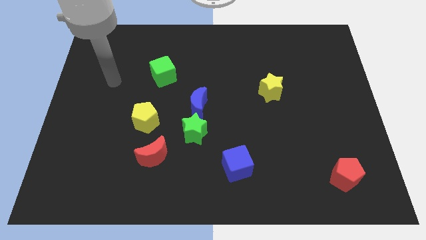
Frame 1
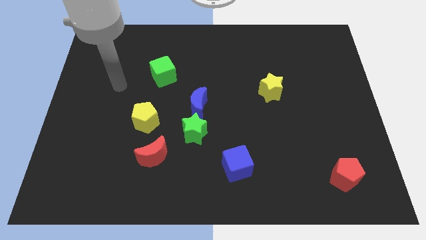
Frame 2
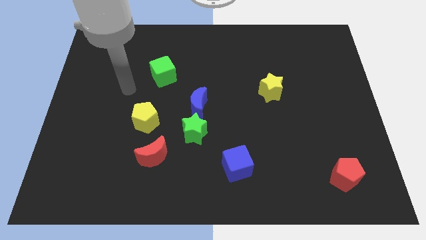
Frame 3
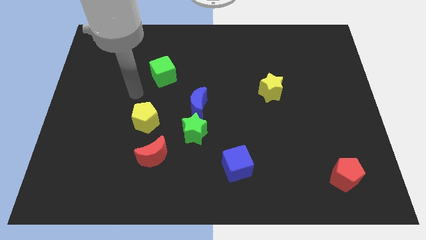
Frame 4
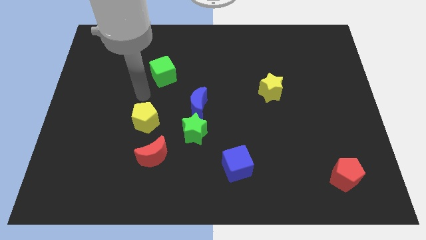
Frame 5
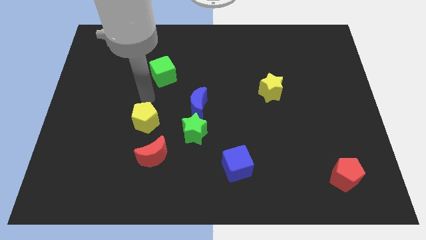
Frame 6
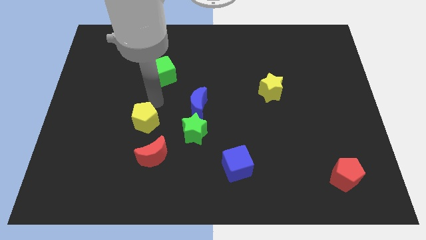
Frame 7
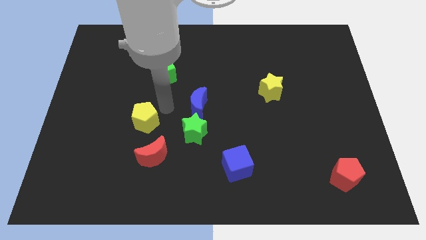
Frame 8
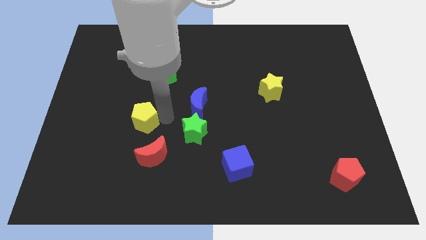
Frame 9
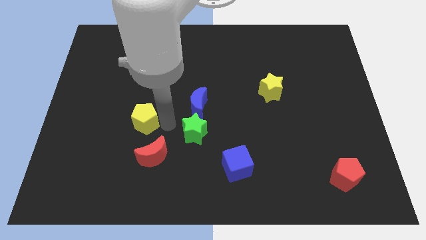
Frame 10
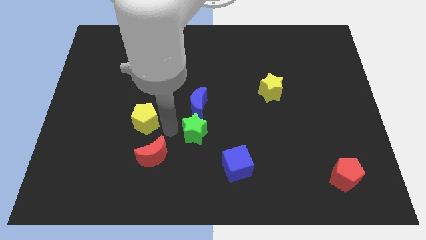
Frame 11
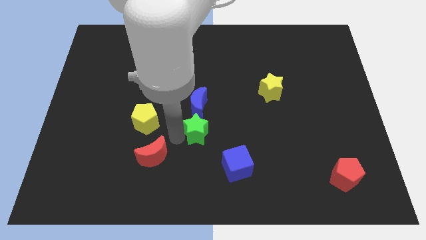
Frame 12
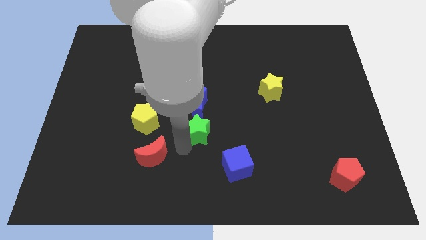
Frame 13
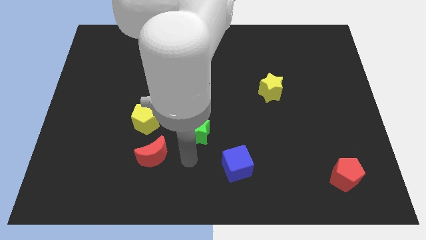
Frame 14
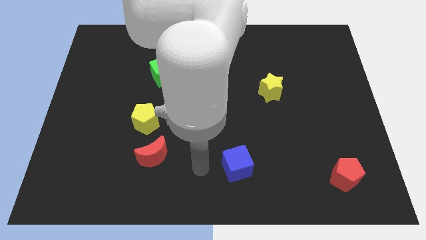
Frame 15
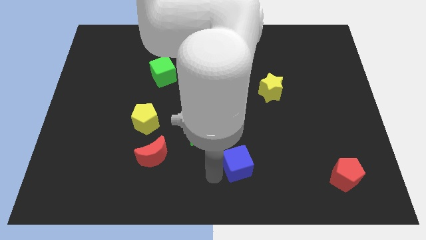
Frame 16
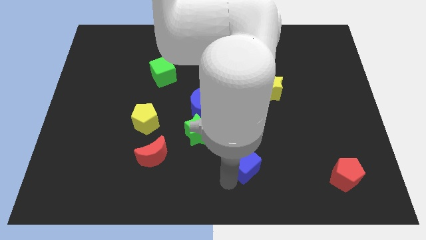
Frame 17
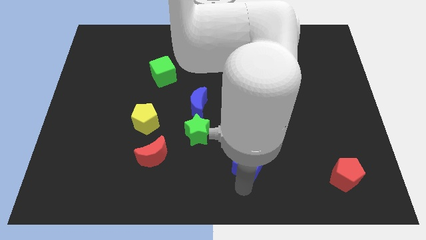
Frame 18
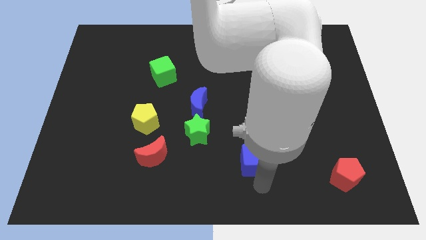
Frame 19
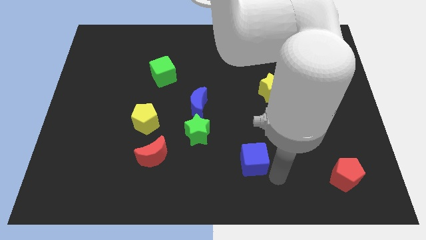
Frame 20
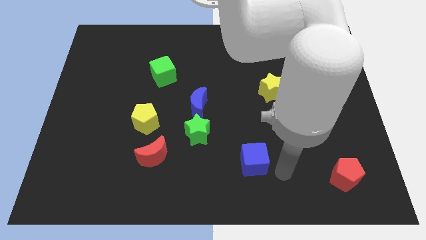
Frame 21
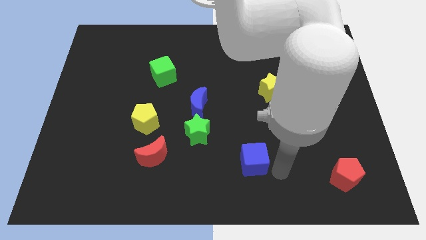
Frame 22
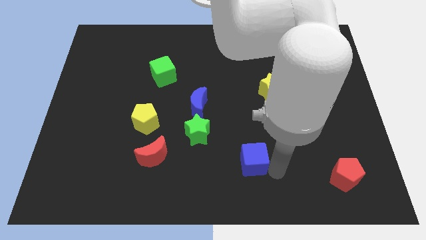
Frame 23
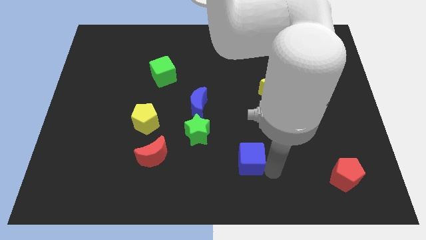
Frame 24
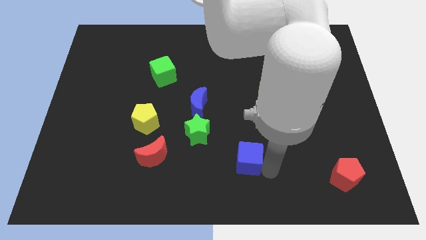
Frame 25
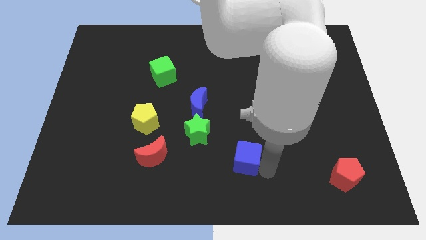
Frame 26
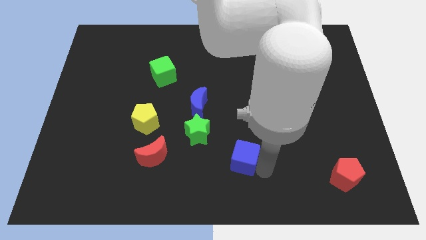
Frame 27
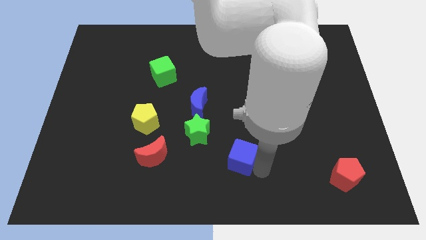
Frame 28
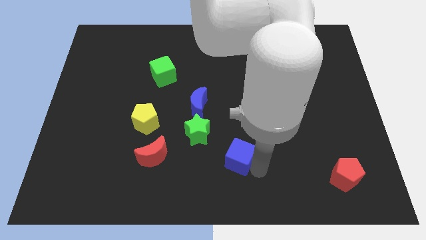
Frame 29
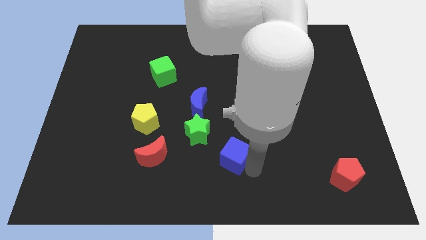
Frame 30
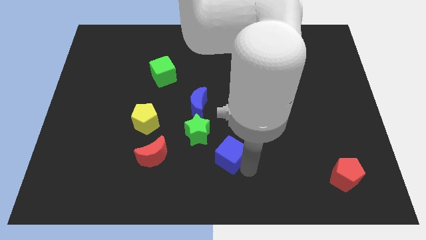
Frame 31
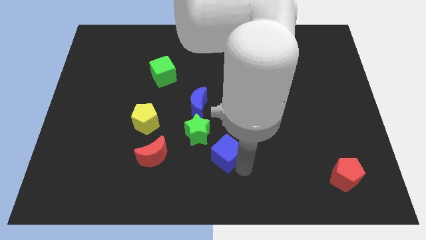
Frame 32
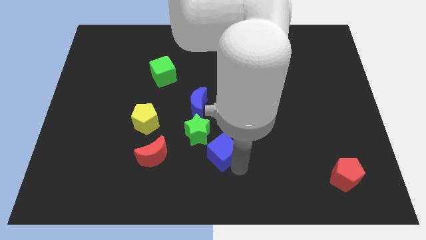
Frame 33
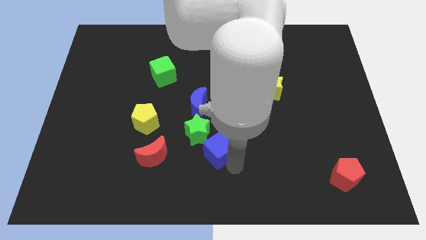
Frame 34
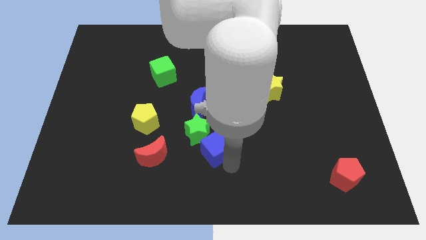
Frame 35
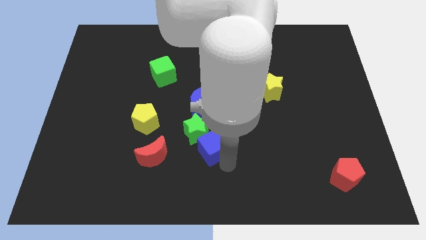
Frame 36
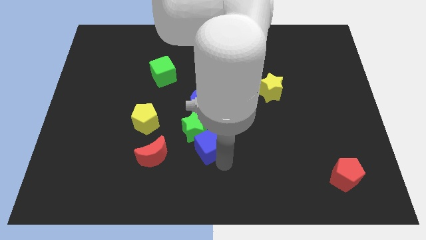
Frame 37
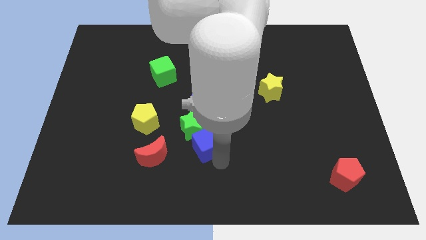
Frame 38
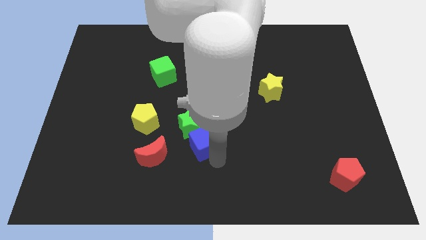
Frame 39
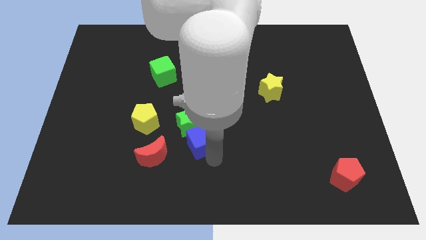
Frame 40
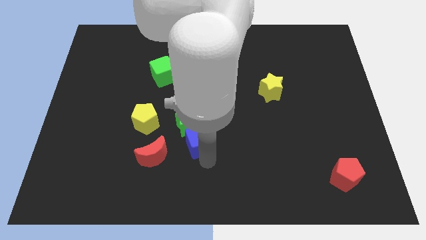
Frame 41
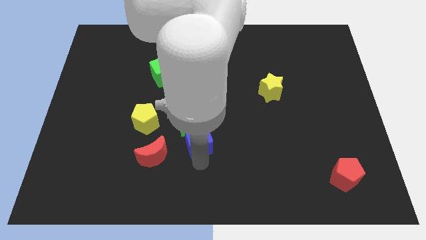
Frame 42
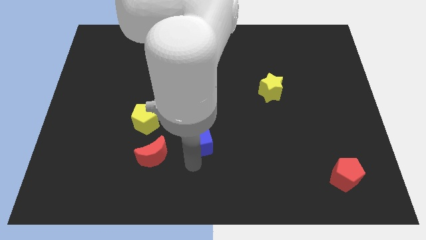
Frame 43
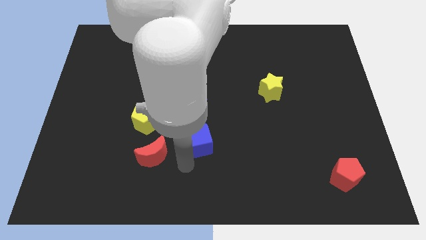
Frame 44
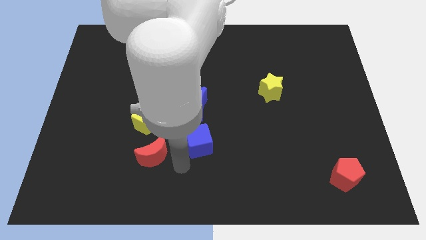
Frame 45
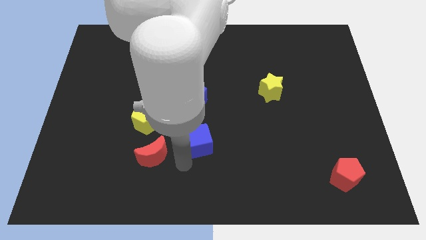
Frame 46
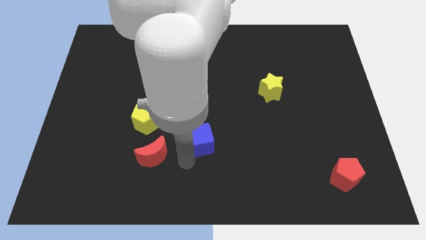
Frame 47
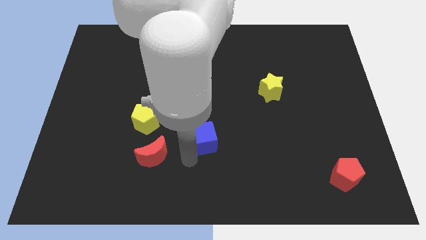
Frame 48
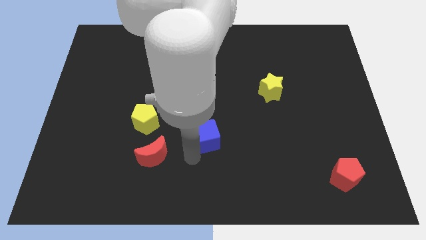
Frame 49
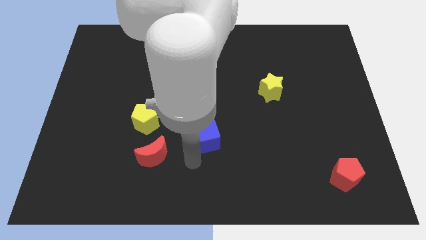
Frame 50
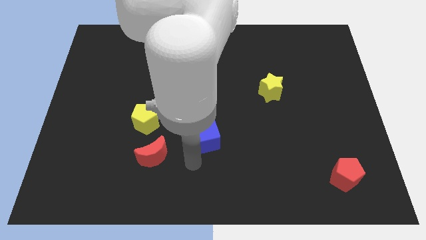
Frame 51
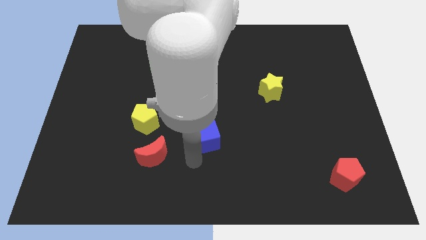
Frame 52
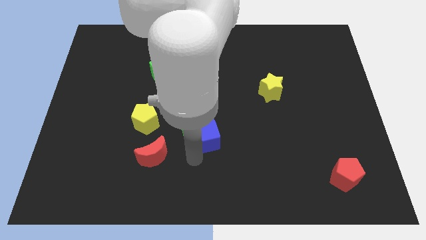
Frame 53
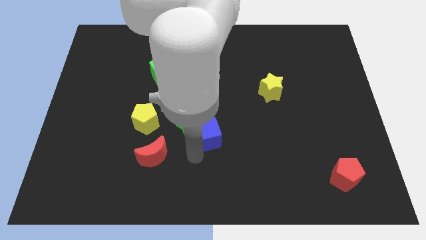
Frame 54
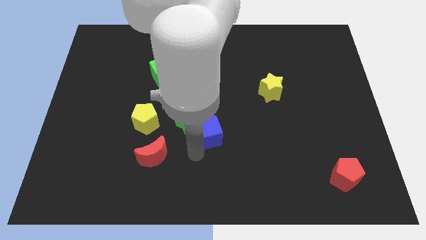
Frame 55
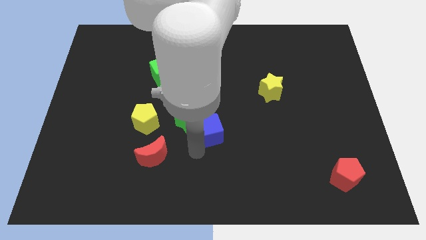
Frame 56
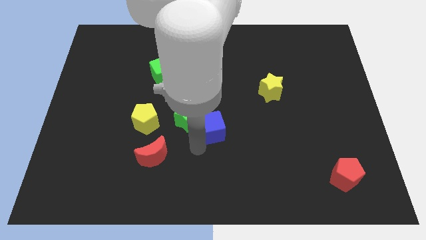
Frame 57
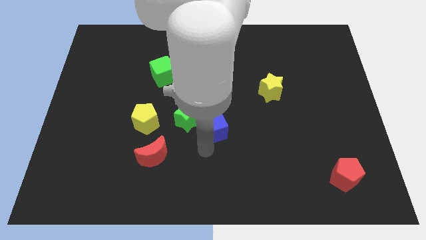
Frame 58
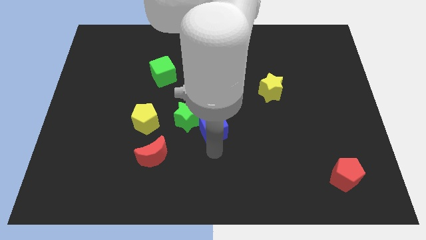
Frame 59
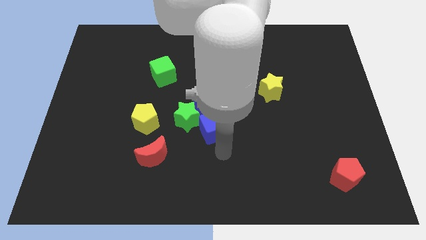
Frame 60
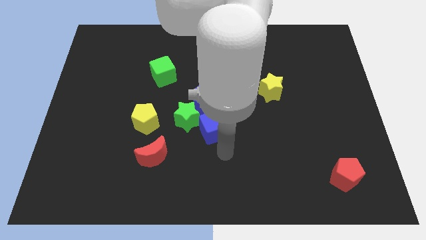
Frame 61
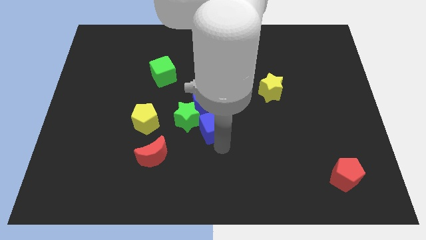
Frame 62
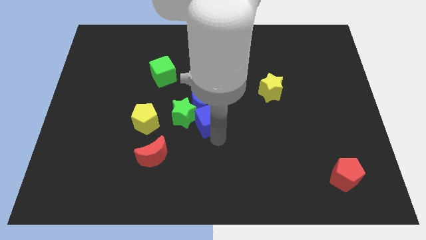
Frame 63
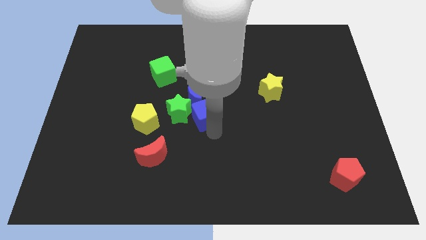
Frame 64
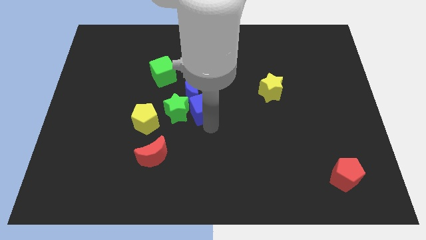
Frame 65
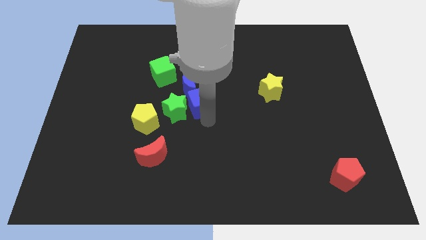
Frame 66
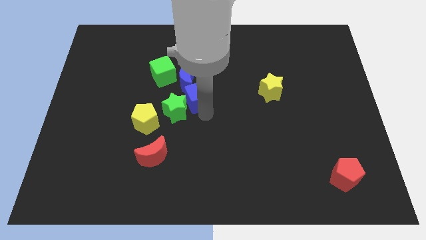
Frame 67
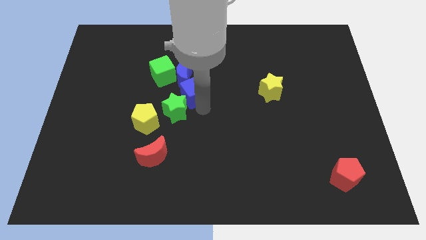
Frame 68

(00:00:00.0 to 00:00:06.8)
put the blue cube next to the blue moon
